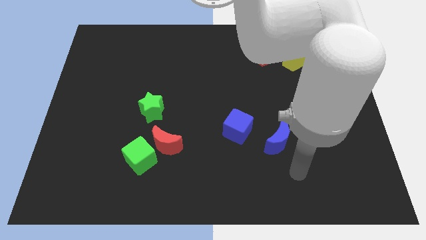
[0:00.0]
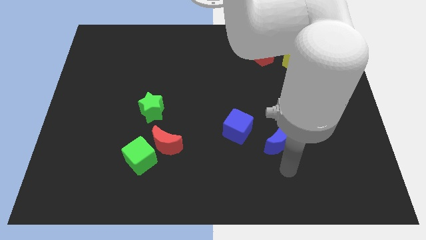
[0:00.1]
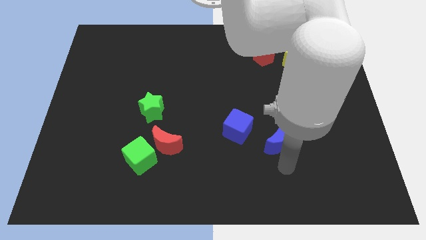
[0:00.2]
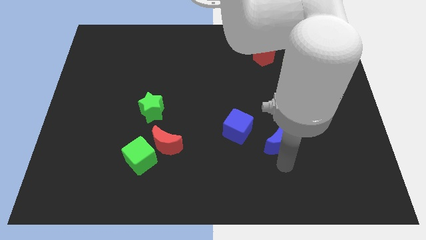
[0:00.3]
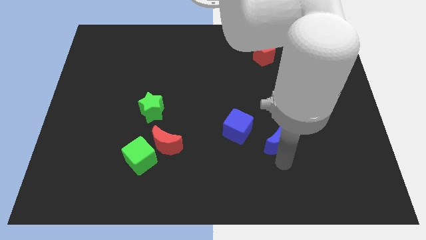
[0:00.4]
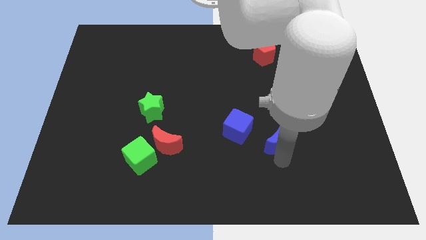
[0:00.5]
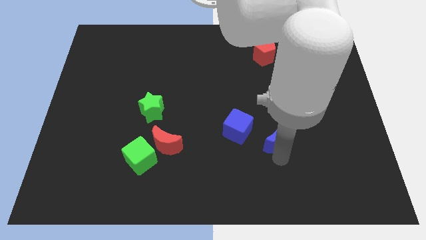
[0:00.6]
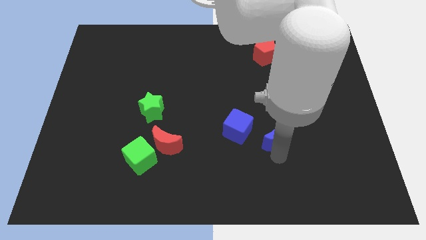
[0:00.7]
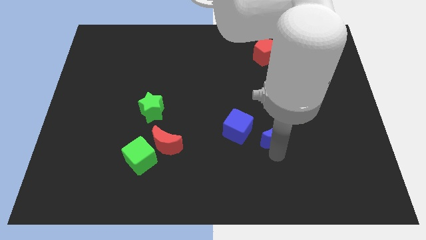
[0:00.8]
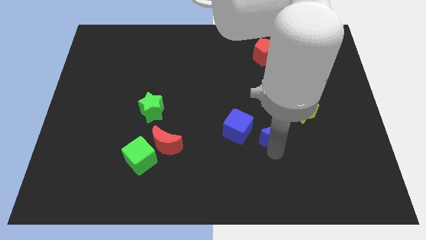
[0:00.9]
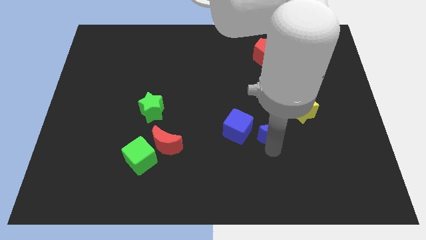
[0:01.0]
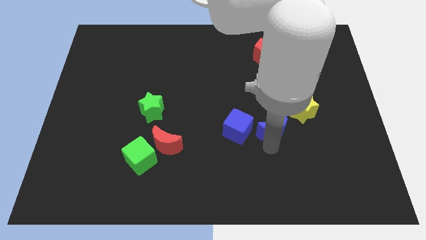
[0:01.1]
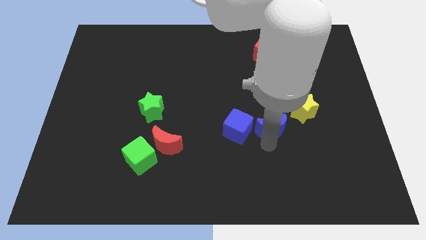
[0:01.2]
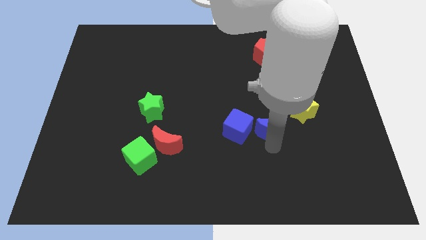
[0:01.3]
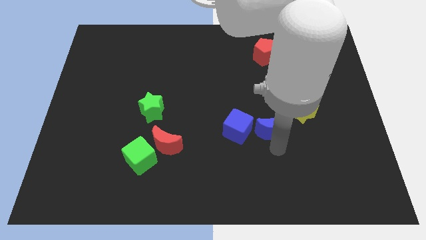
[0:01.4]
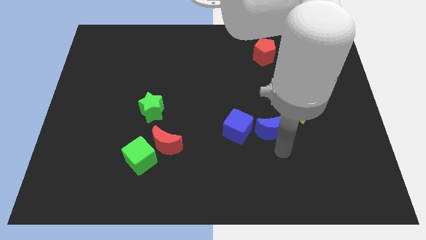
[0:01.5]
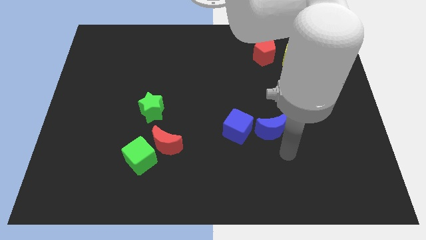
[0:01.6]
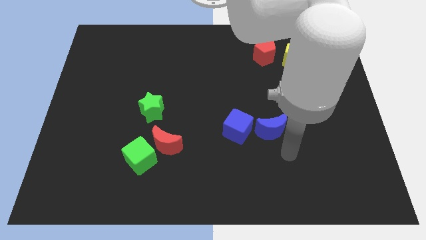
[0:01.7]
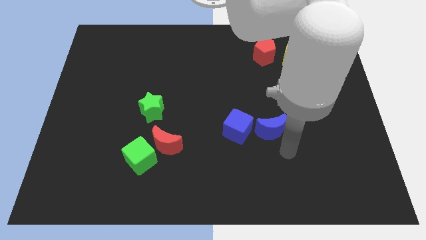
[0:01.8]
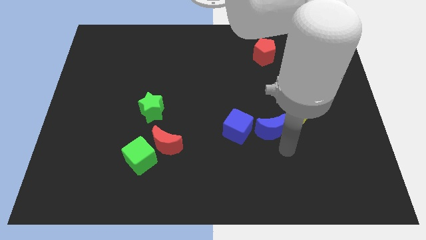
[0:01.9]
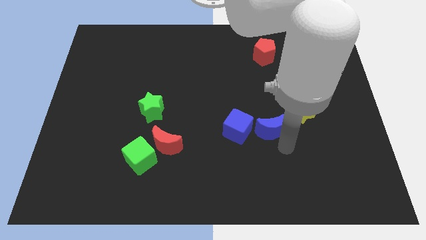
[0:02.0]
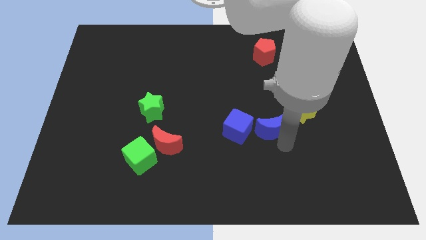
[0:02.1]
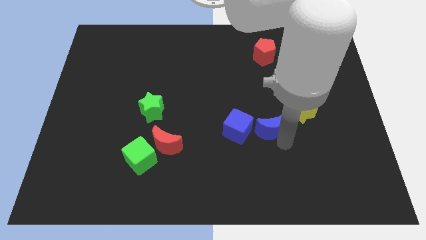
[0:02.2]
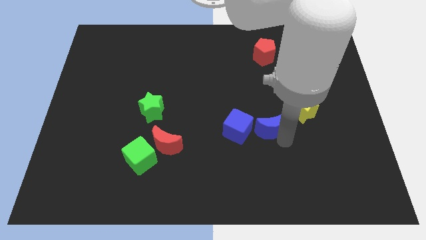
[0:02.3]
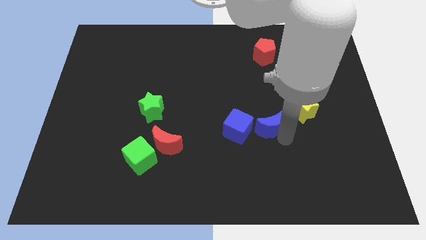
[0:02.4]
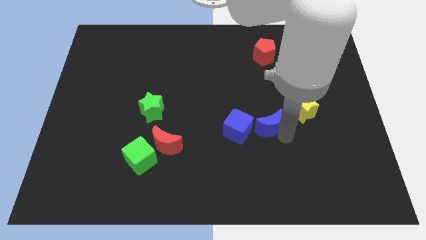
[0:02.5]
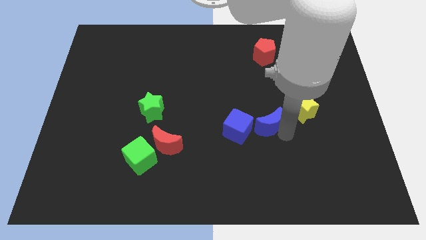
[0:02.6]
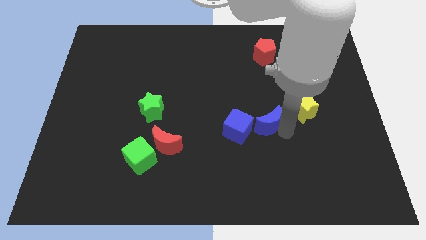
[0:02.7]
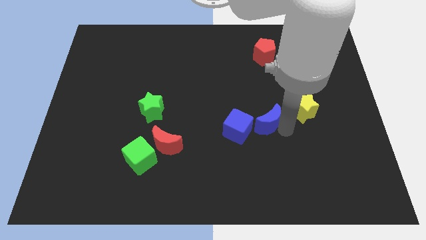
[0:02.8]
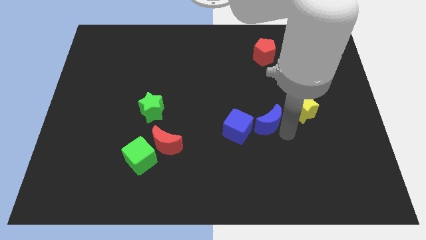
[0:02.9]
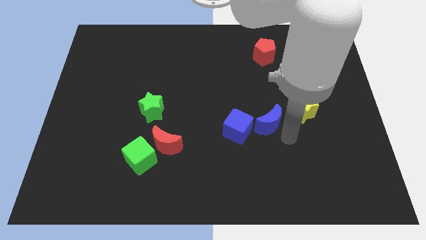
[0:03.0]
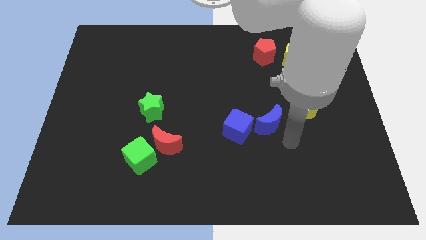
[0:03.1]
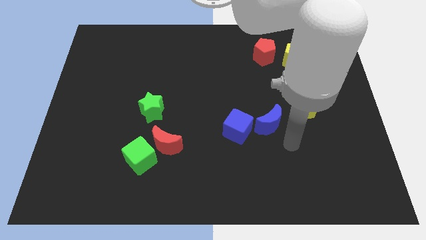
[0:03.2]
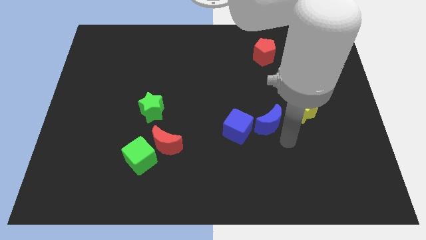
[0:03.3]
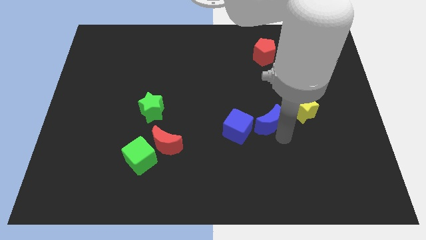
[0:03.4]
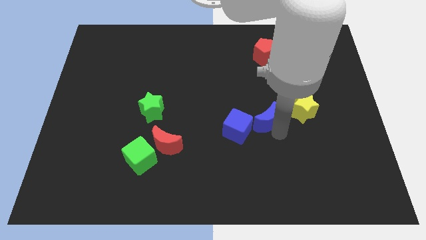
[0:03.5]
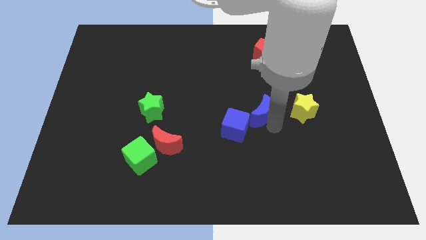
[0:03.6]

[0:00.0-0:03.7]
push the blue moon a little bit upwards and to the left

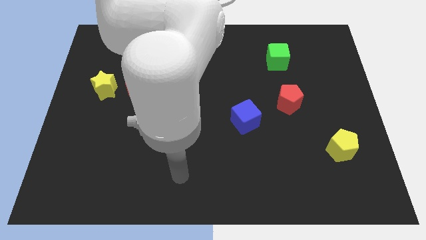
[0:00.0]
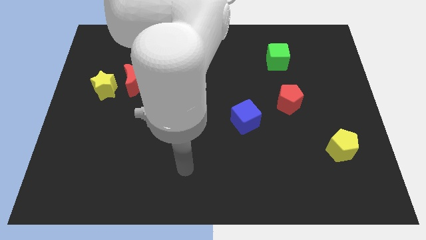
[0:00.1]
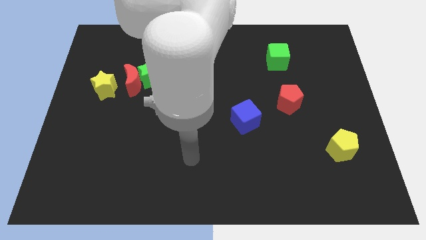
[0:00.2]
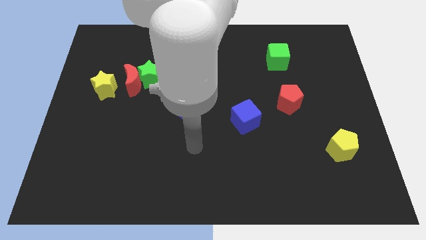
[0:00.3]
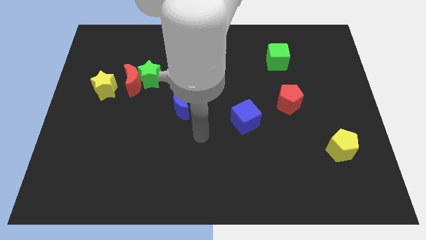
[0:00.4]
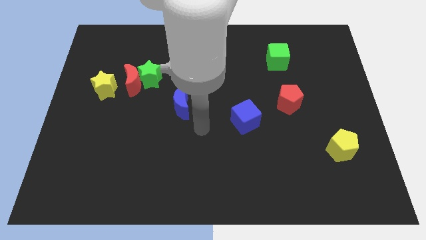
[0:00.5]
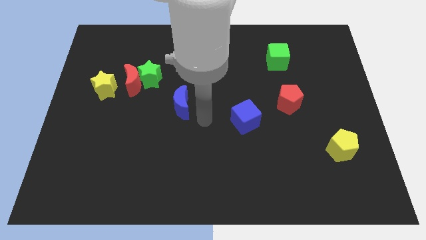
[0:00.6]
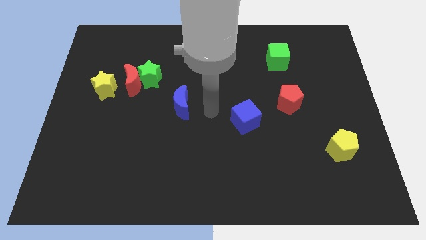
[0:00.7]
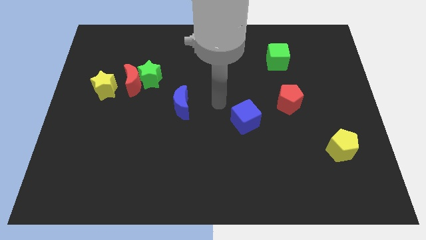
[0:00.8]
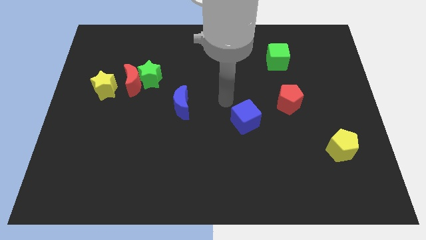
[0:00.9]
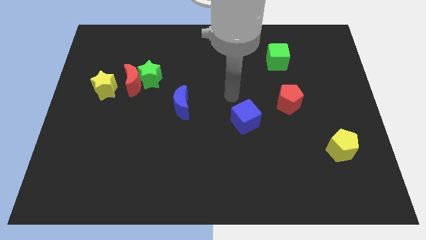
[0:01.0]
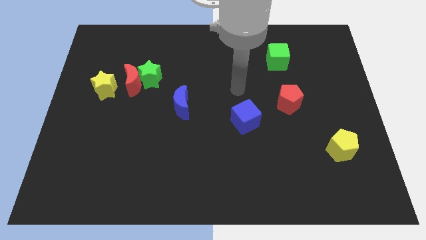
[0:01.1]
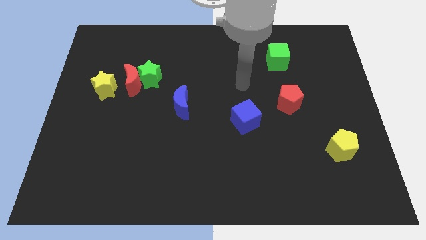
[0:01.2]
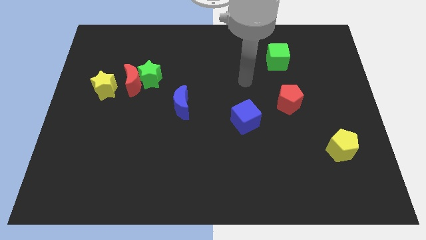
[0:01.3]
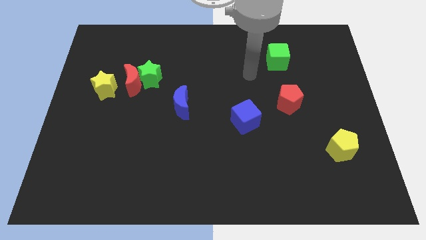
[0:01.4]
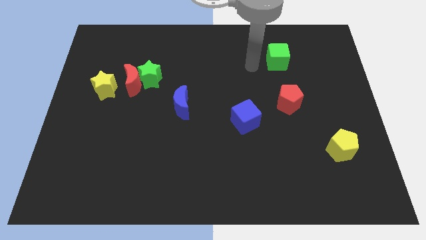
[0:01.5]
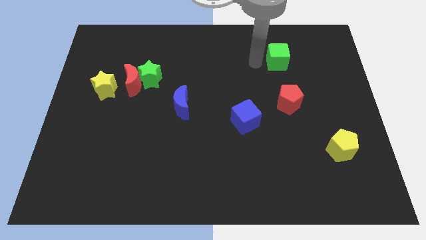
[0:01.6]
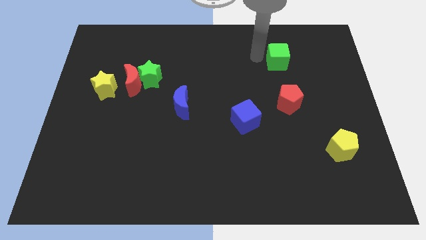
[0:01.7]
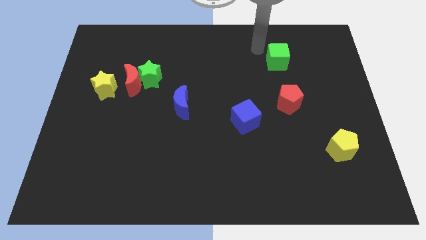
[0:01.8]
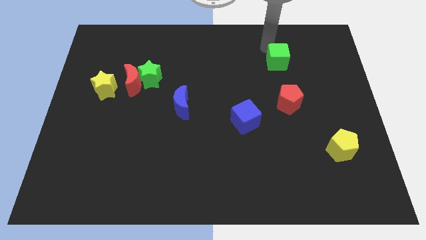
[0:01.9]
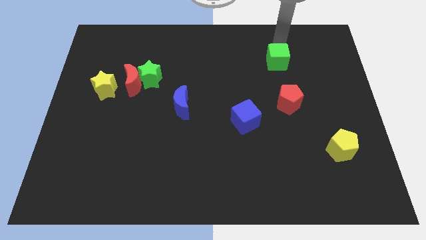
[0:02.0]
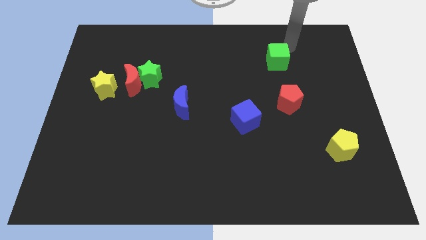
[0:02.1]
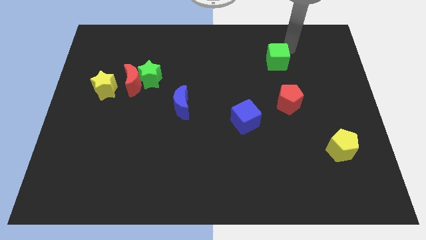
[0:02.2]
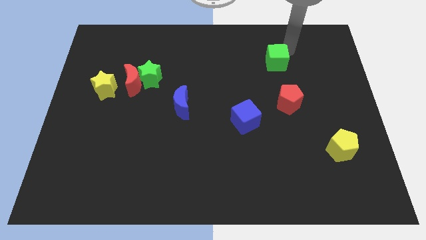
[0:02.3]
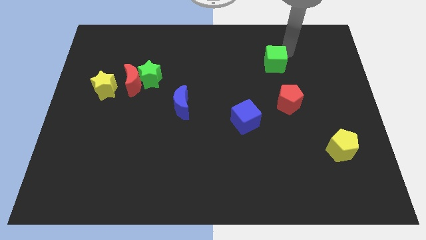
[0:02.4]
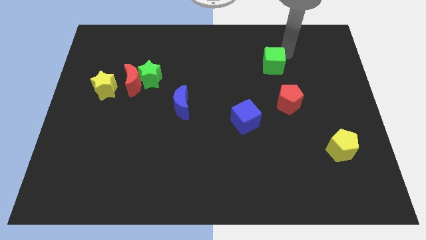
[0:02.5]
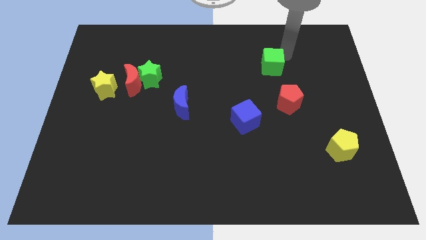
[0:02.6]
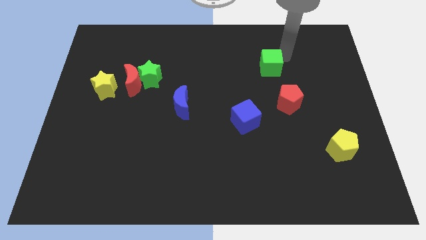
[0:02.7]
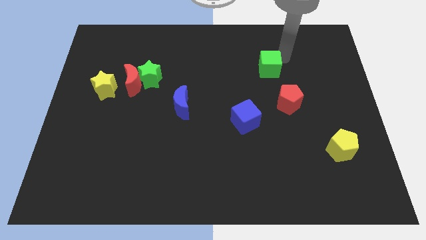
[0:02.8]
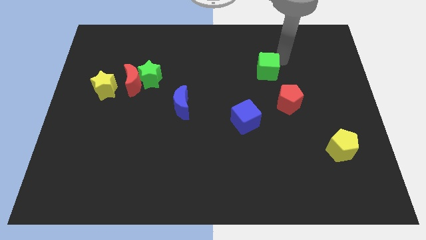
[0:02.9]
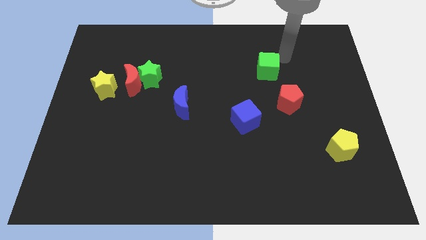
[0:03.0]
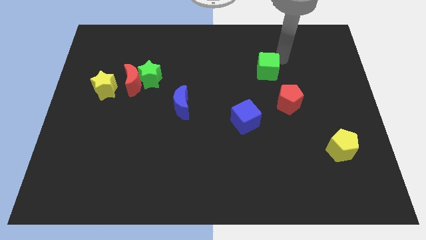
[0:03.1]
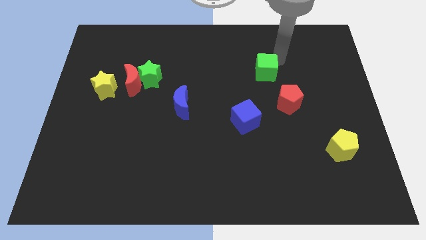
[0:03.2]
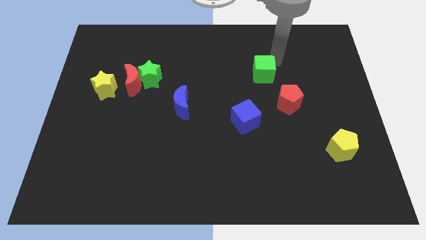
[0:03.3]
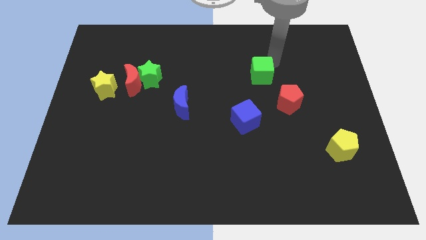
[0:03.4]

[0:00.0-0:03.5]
push the green cube downwards and then to the left a little bit

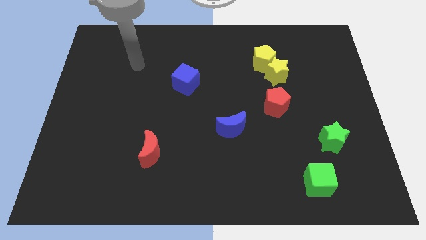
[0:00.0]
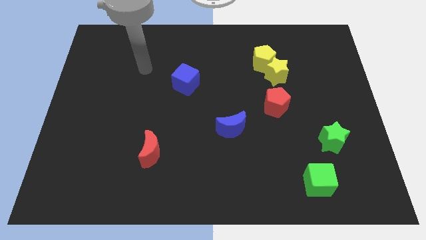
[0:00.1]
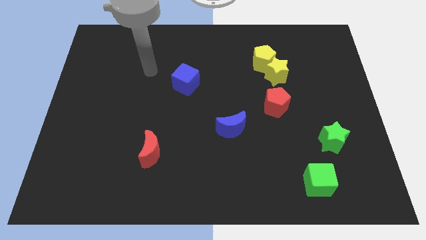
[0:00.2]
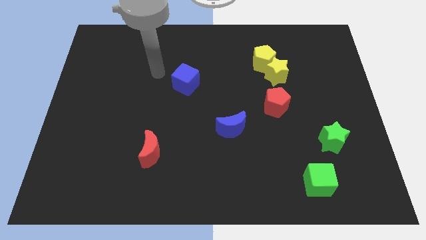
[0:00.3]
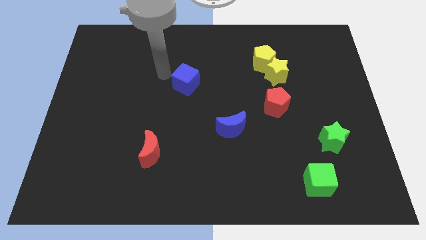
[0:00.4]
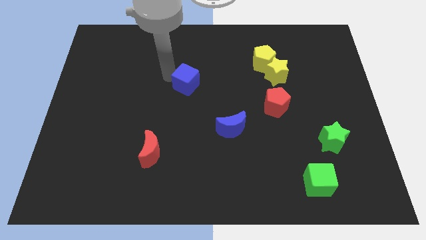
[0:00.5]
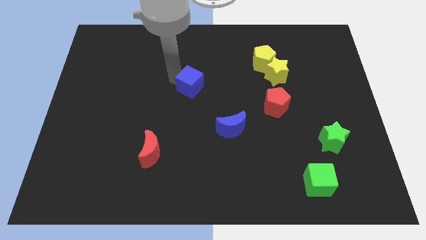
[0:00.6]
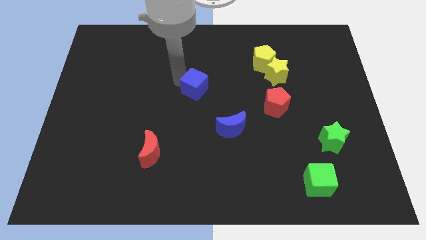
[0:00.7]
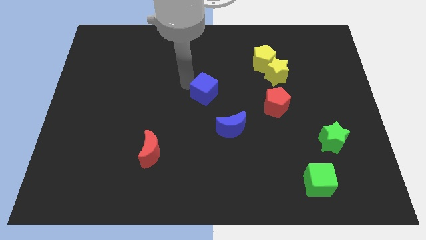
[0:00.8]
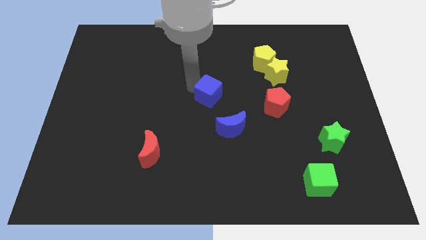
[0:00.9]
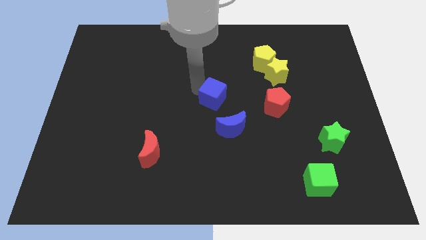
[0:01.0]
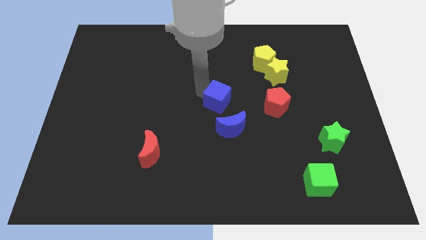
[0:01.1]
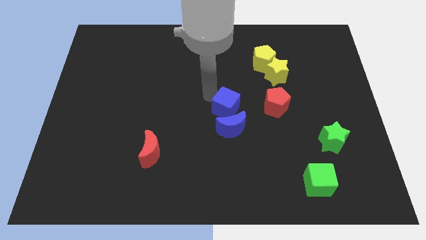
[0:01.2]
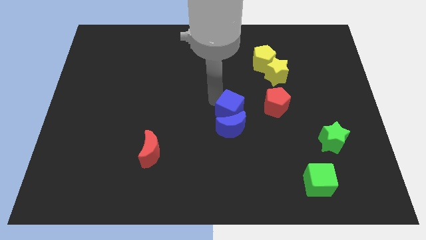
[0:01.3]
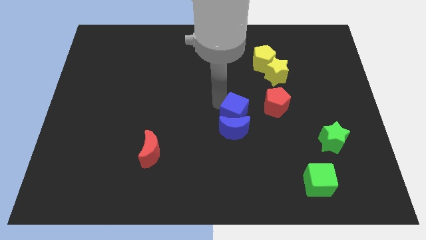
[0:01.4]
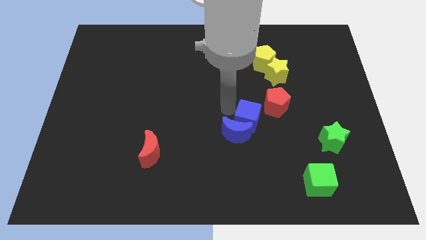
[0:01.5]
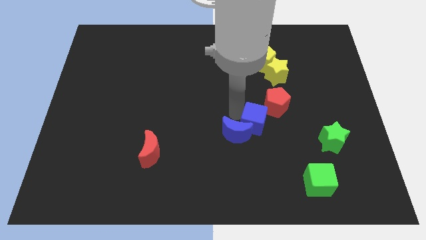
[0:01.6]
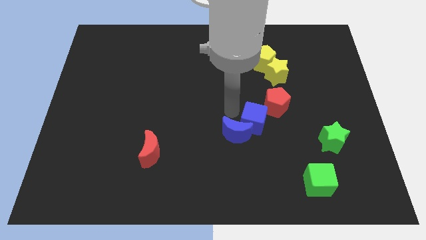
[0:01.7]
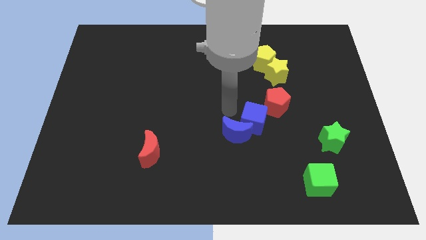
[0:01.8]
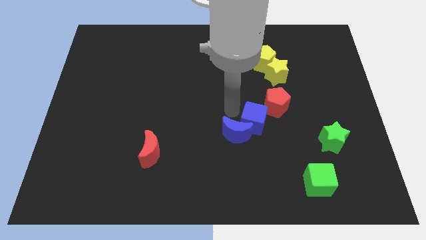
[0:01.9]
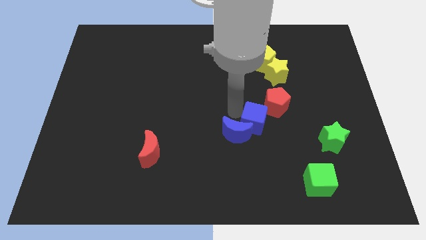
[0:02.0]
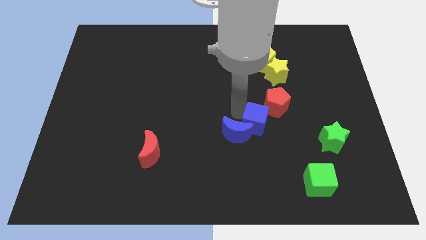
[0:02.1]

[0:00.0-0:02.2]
push the blue cube down and right
